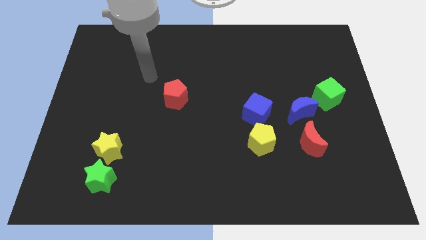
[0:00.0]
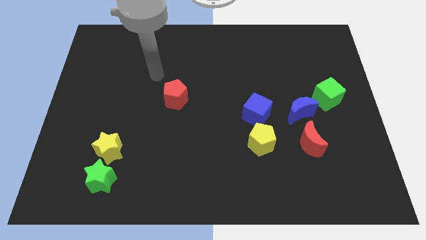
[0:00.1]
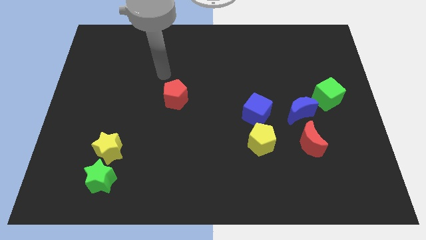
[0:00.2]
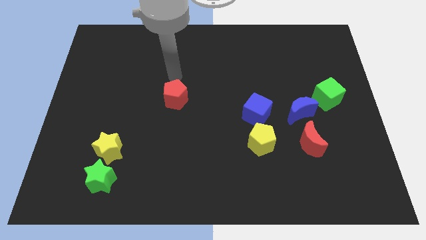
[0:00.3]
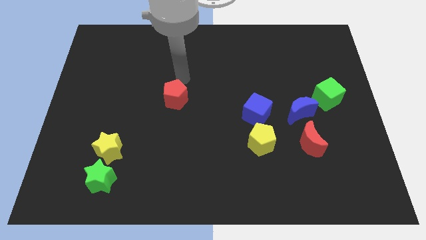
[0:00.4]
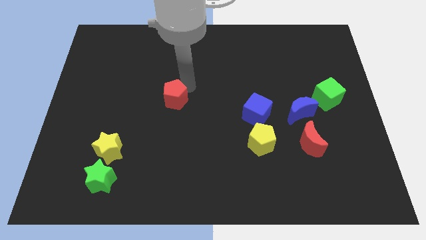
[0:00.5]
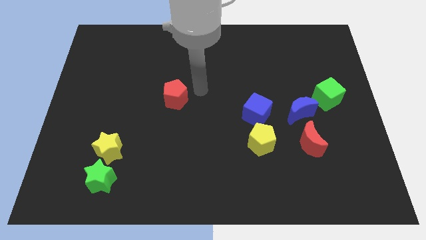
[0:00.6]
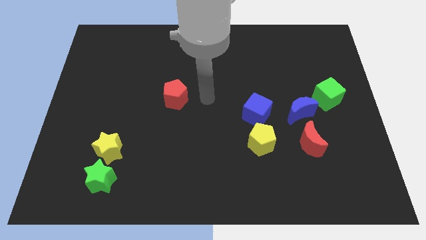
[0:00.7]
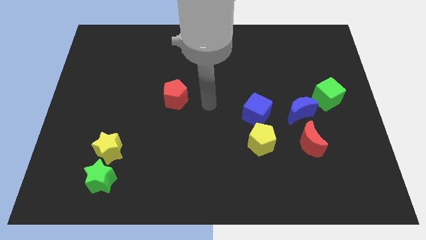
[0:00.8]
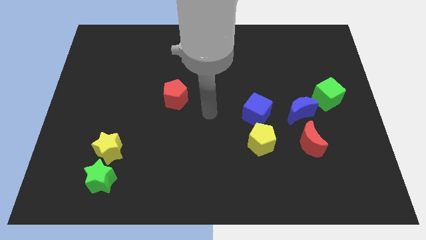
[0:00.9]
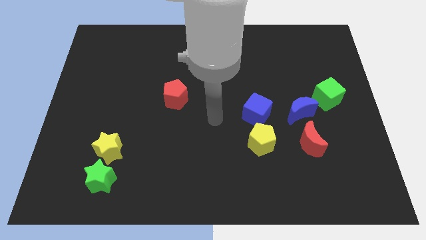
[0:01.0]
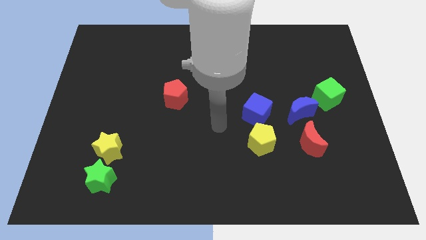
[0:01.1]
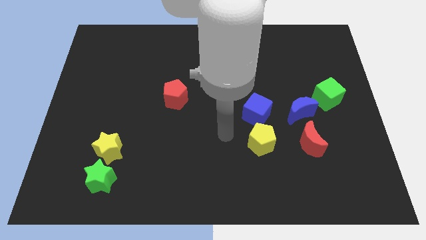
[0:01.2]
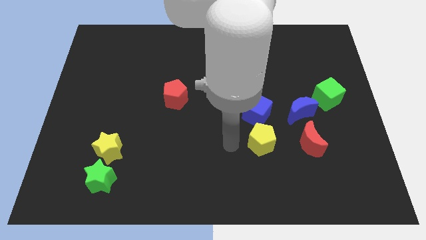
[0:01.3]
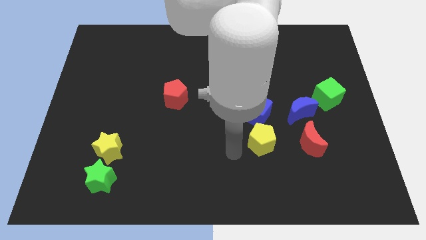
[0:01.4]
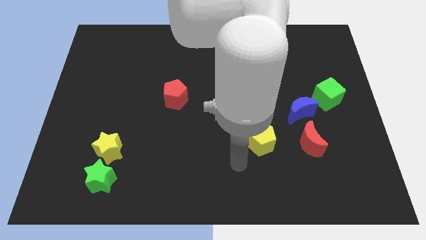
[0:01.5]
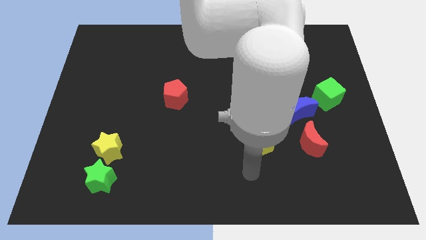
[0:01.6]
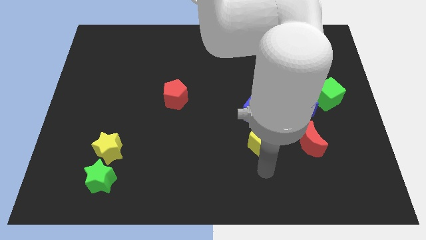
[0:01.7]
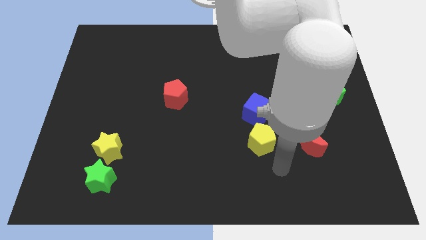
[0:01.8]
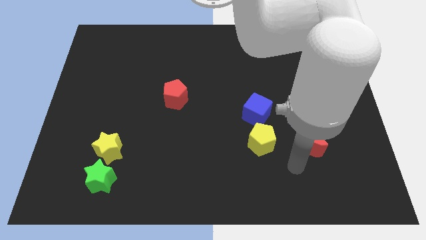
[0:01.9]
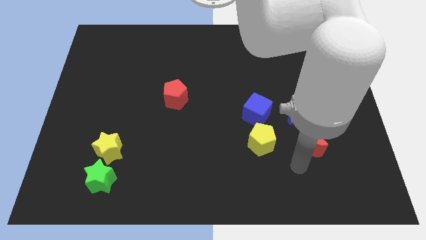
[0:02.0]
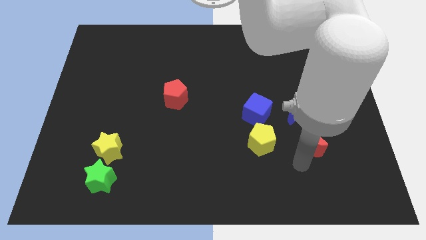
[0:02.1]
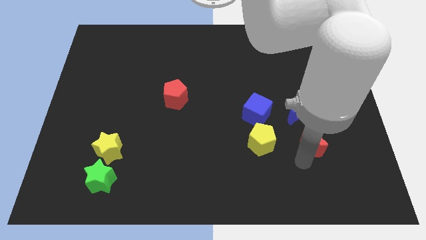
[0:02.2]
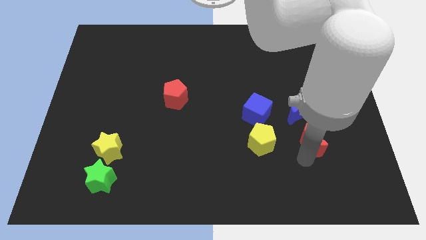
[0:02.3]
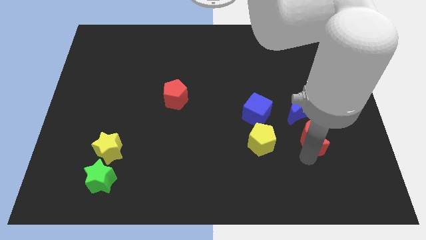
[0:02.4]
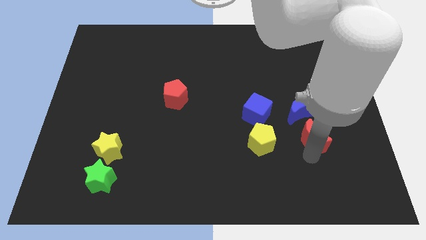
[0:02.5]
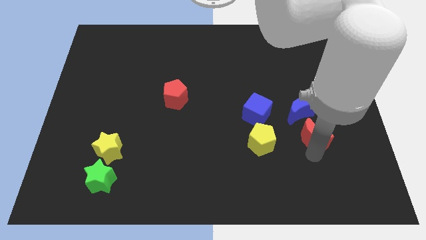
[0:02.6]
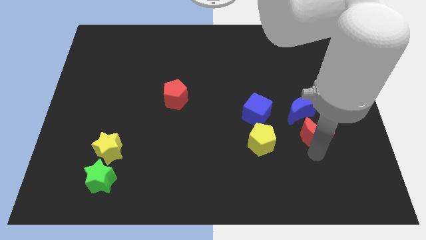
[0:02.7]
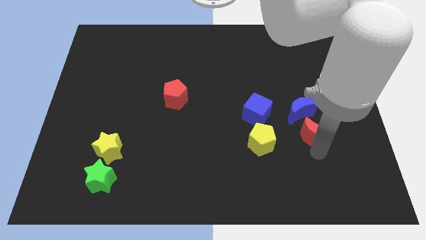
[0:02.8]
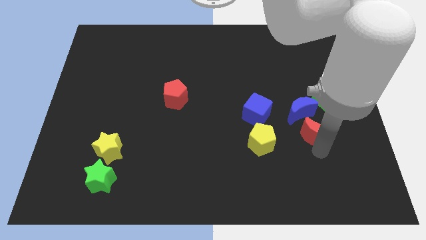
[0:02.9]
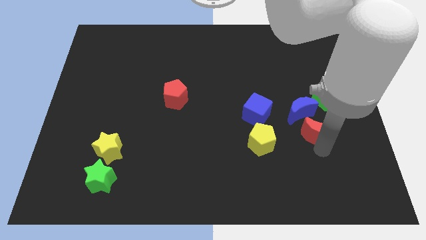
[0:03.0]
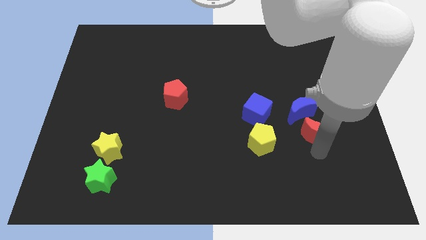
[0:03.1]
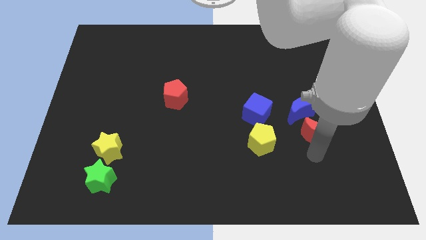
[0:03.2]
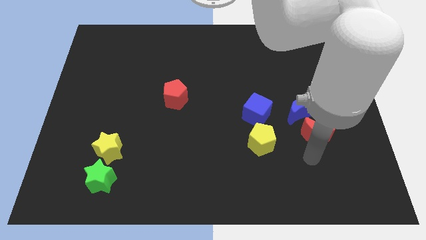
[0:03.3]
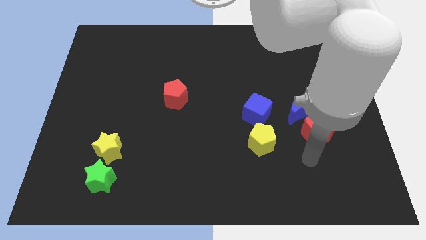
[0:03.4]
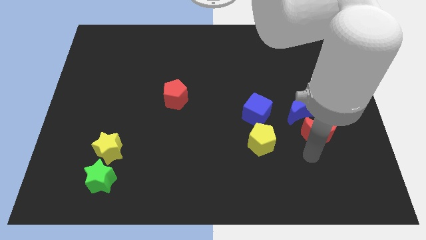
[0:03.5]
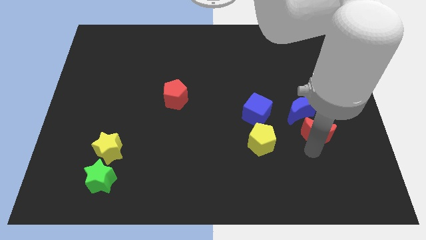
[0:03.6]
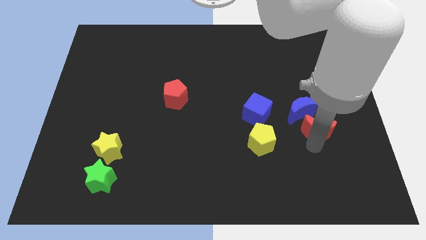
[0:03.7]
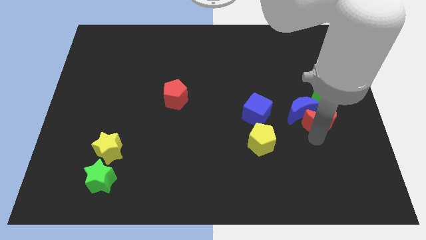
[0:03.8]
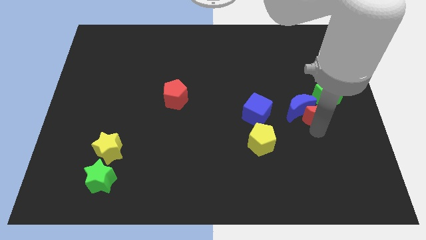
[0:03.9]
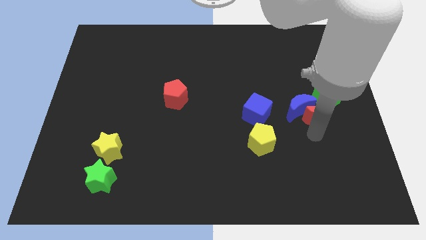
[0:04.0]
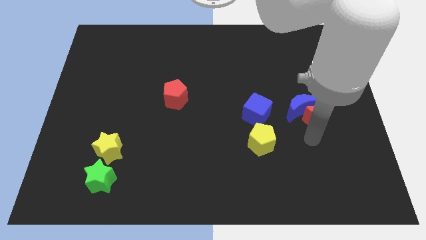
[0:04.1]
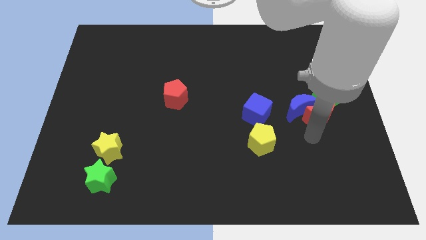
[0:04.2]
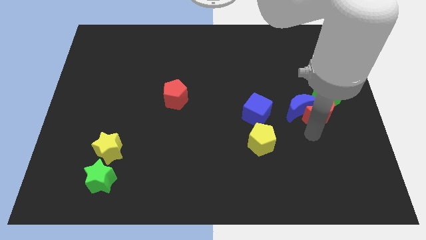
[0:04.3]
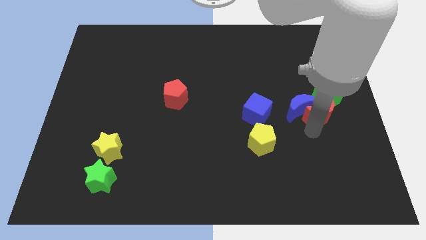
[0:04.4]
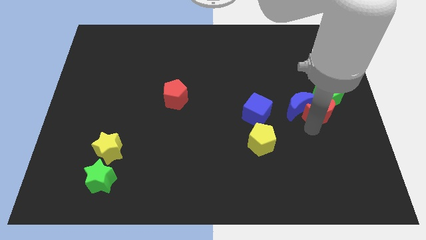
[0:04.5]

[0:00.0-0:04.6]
slide the red moon towards the green cube

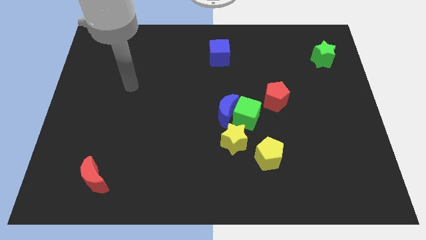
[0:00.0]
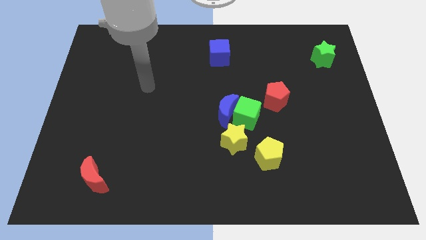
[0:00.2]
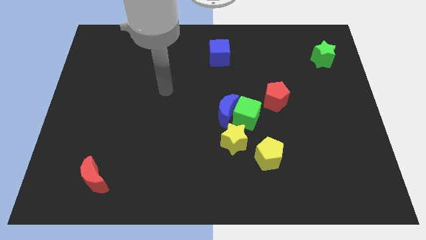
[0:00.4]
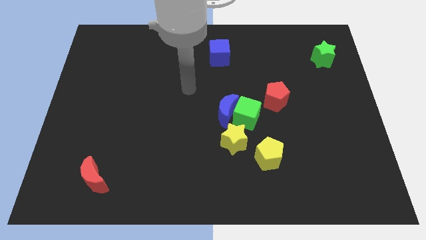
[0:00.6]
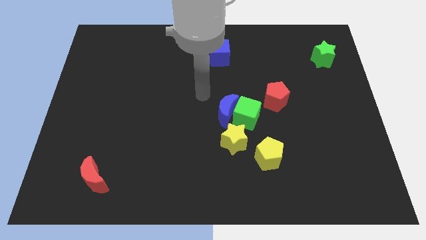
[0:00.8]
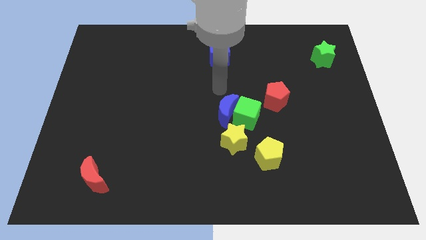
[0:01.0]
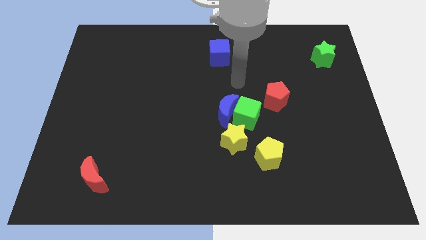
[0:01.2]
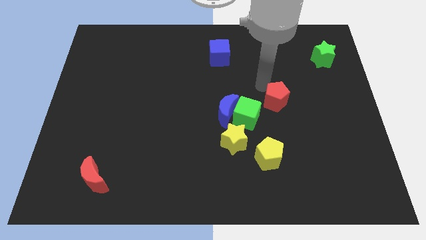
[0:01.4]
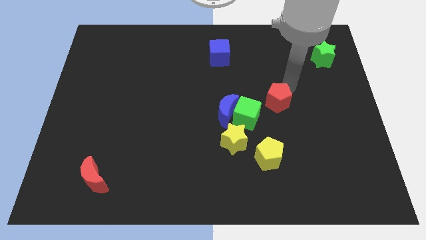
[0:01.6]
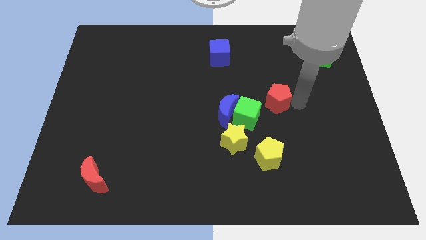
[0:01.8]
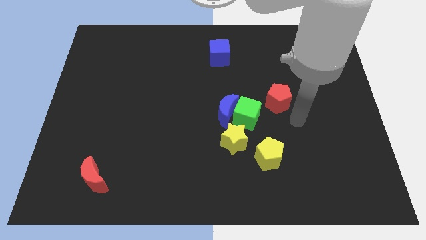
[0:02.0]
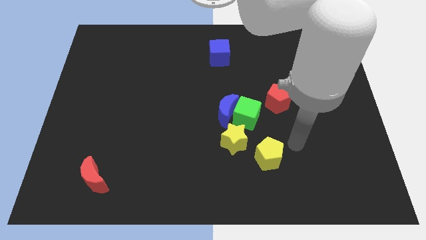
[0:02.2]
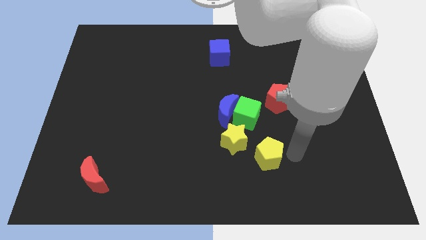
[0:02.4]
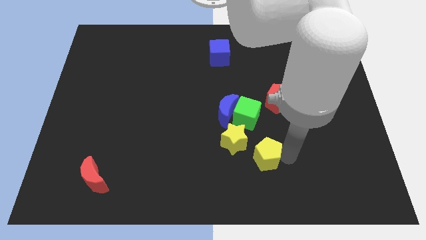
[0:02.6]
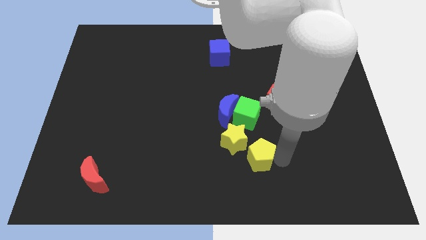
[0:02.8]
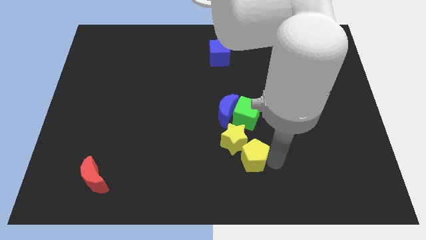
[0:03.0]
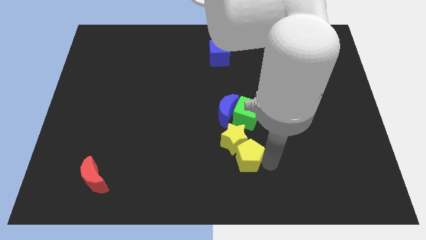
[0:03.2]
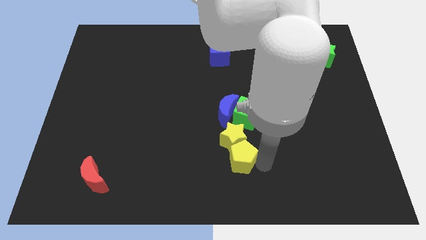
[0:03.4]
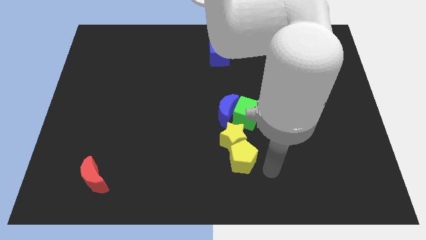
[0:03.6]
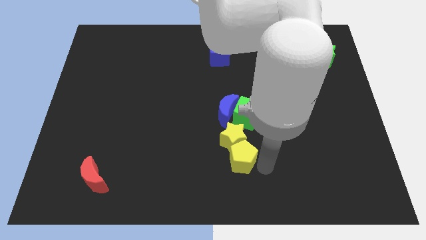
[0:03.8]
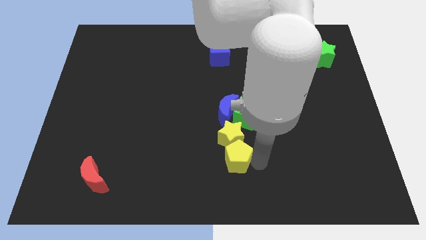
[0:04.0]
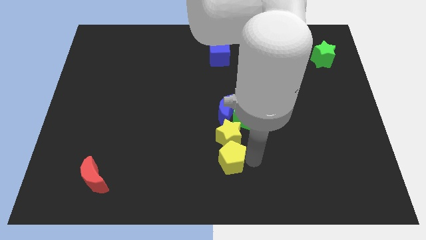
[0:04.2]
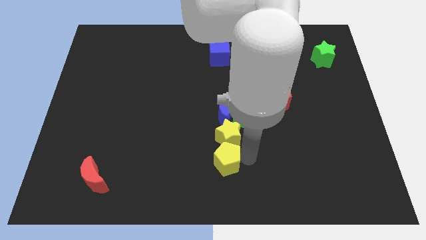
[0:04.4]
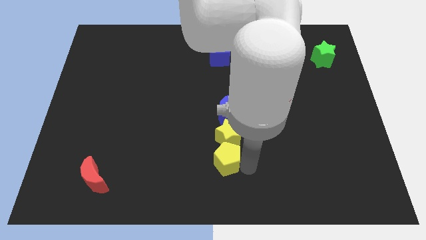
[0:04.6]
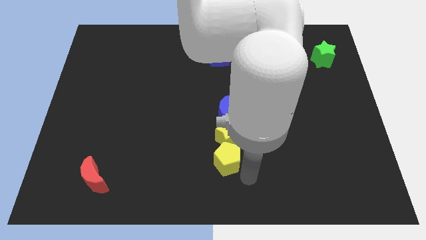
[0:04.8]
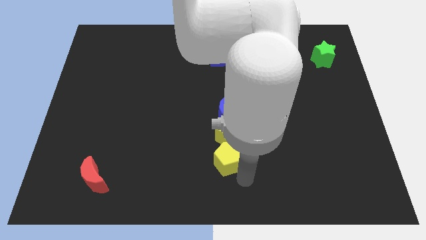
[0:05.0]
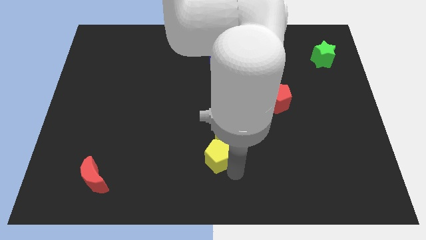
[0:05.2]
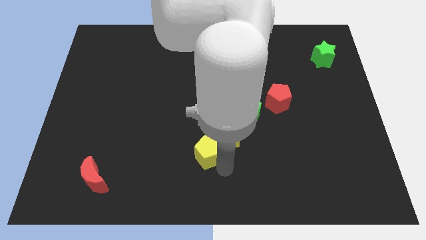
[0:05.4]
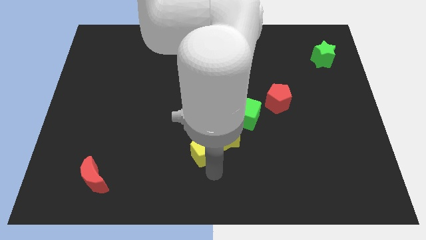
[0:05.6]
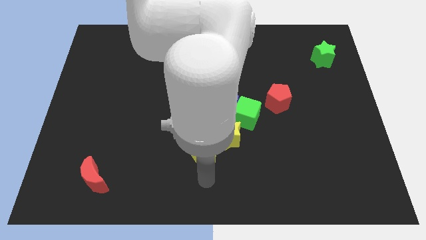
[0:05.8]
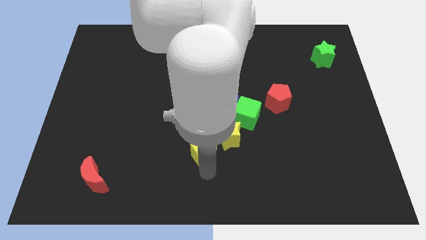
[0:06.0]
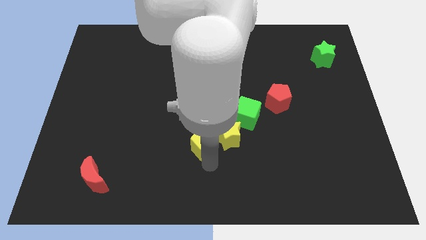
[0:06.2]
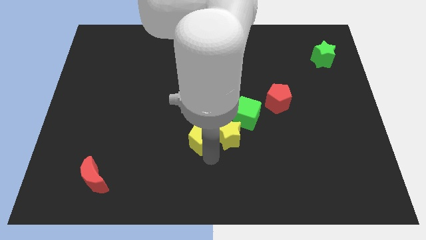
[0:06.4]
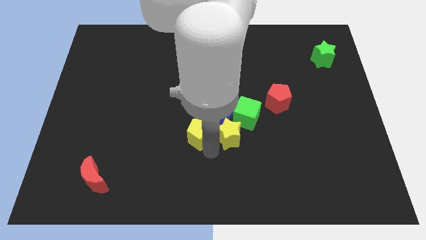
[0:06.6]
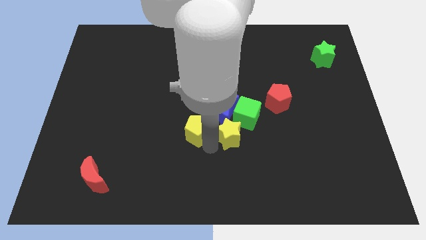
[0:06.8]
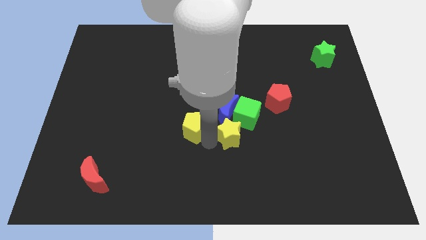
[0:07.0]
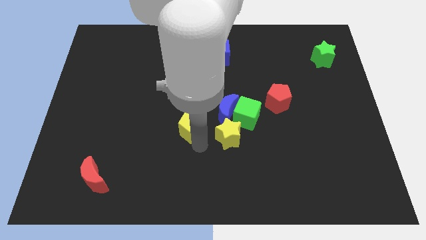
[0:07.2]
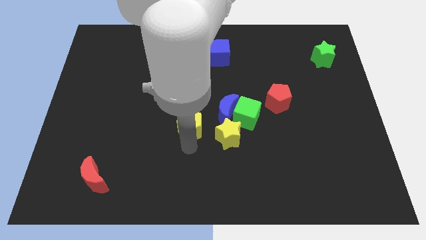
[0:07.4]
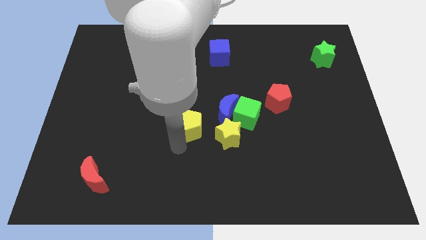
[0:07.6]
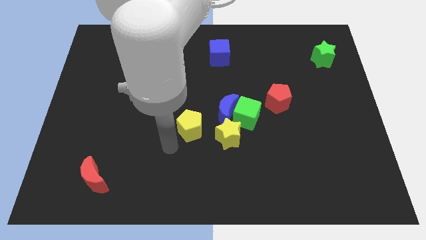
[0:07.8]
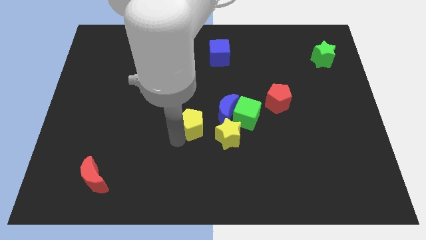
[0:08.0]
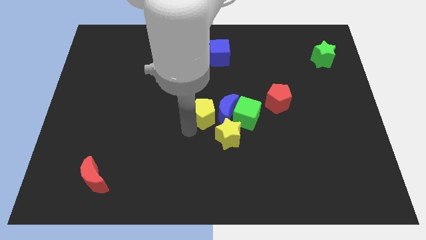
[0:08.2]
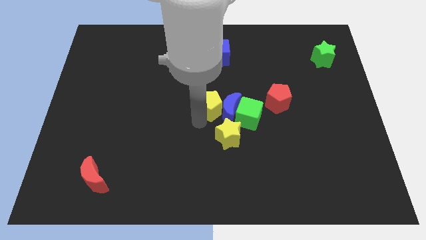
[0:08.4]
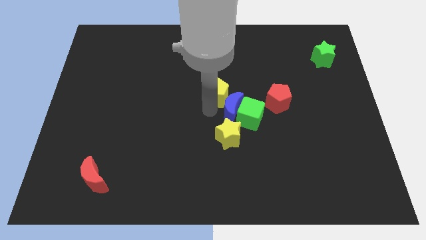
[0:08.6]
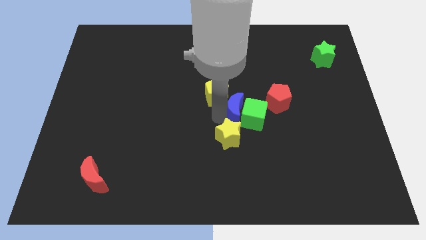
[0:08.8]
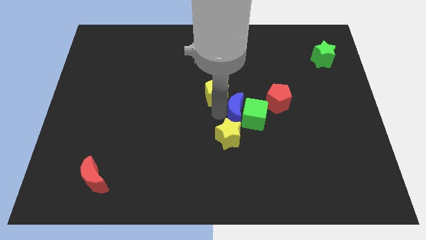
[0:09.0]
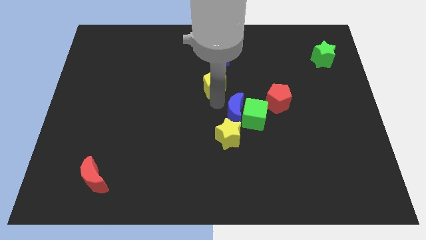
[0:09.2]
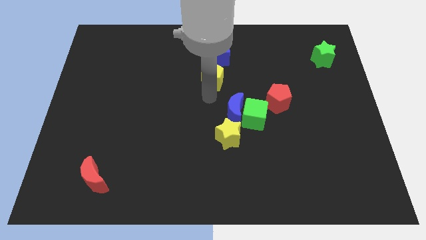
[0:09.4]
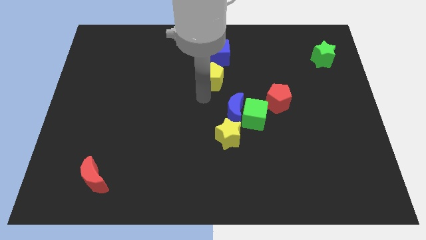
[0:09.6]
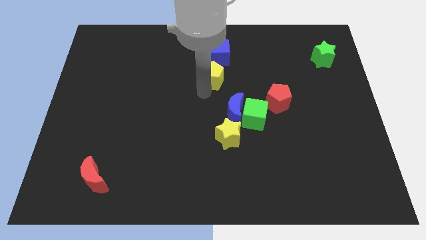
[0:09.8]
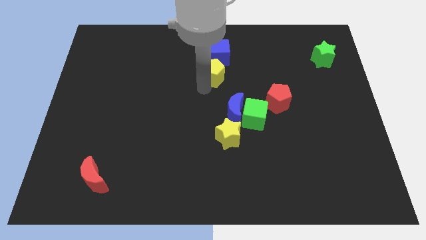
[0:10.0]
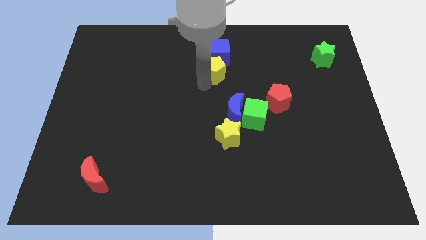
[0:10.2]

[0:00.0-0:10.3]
push the yellow pentagon next to the blue cube
